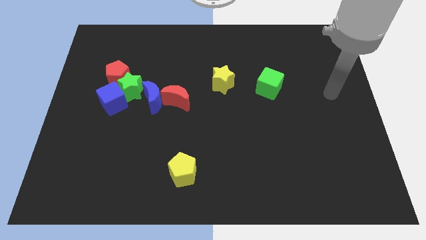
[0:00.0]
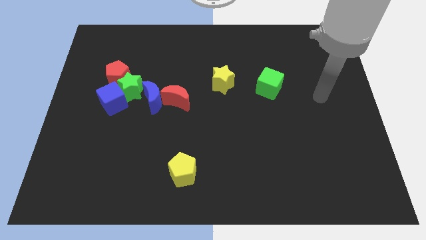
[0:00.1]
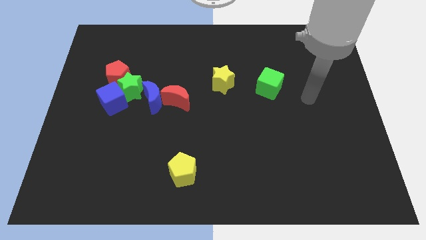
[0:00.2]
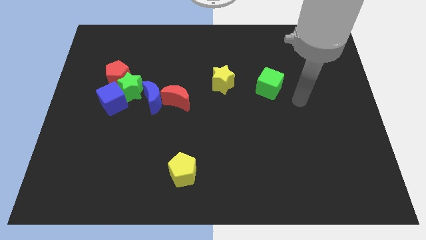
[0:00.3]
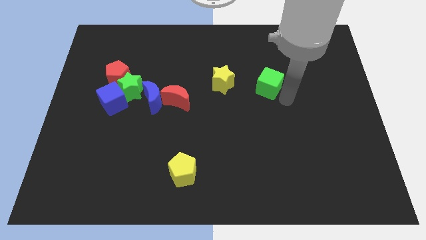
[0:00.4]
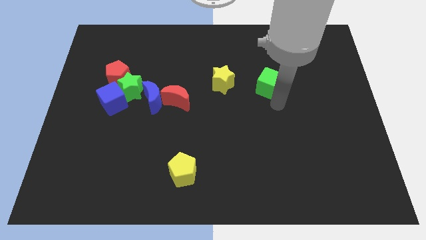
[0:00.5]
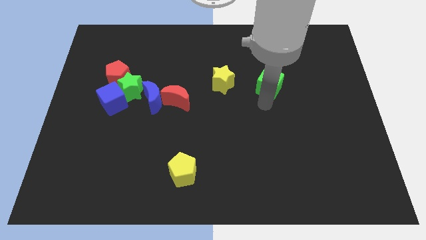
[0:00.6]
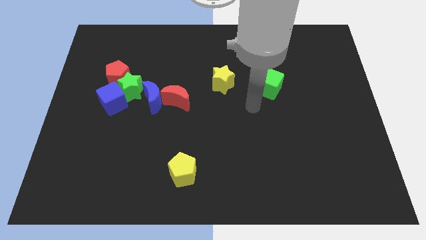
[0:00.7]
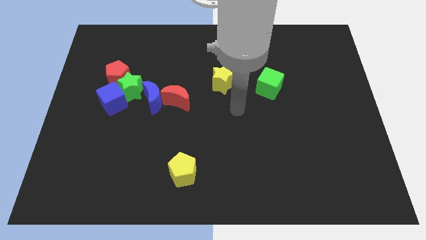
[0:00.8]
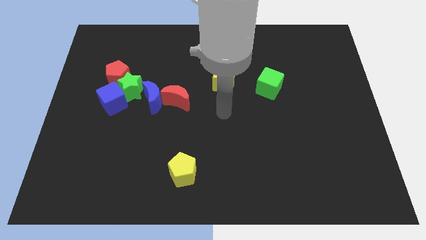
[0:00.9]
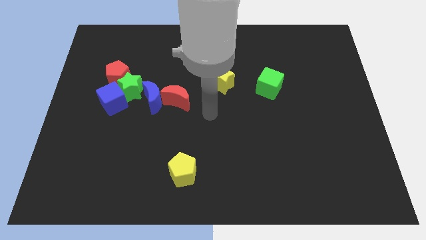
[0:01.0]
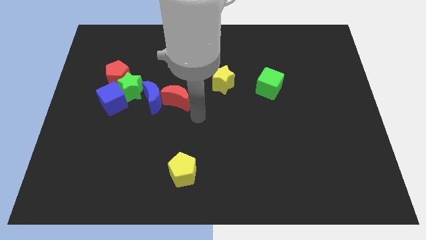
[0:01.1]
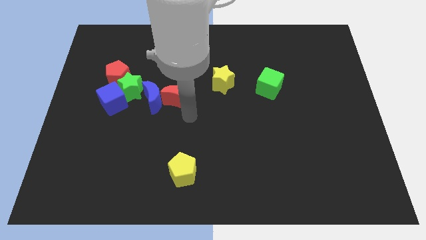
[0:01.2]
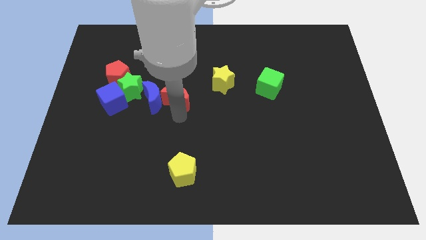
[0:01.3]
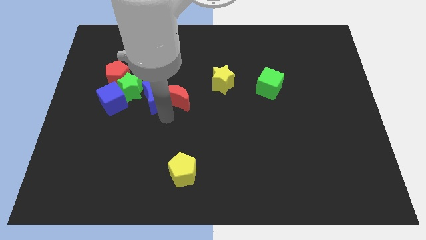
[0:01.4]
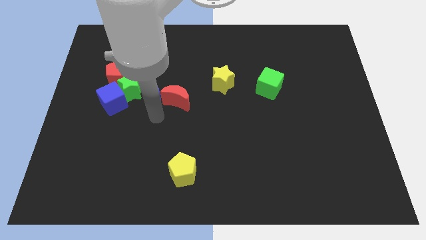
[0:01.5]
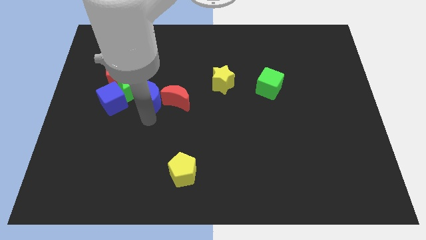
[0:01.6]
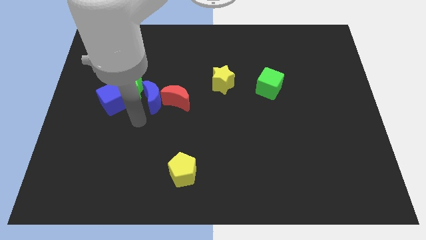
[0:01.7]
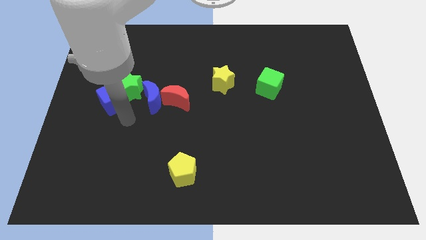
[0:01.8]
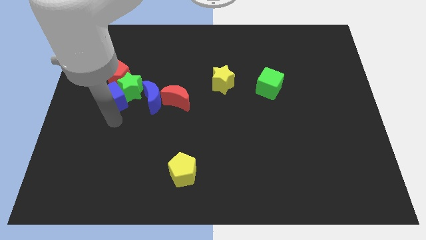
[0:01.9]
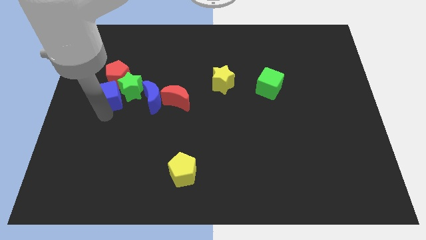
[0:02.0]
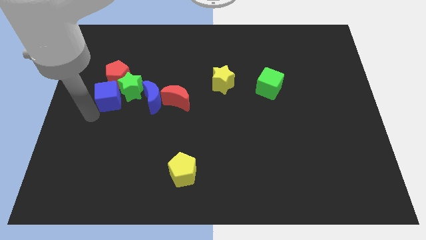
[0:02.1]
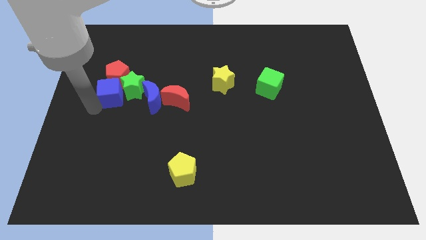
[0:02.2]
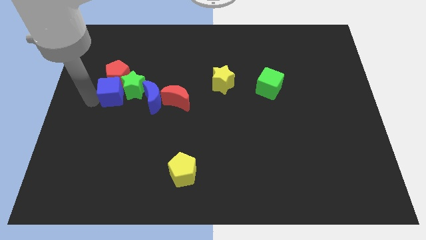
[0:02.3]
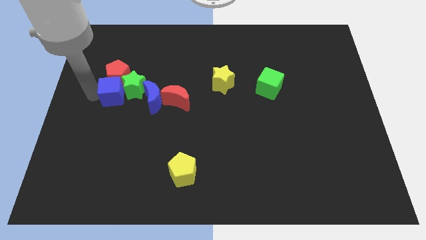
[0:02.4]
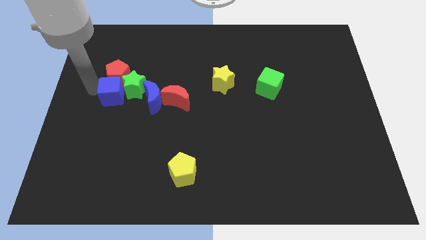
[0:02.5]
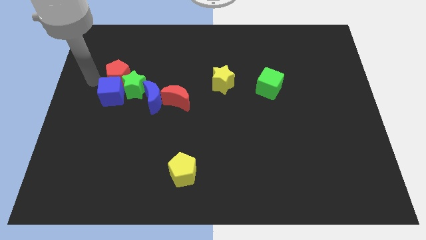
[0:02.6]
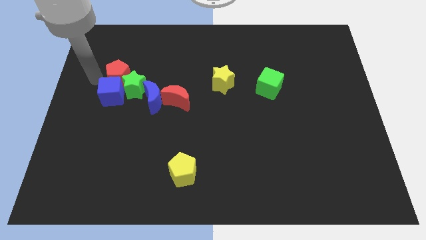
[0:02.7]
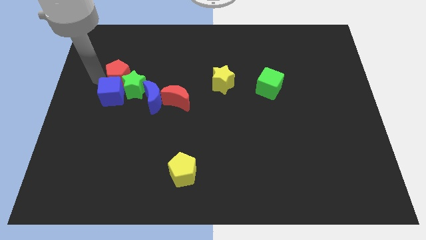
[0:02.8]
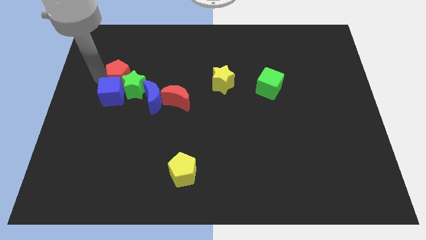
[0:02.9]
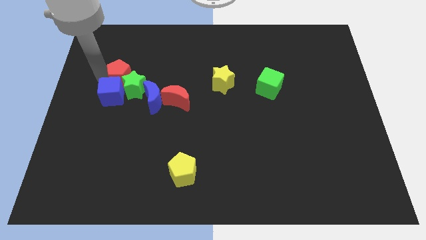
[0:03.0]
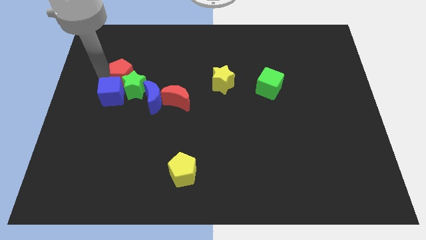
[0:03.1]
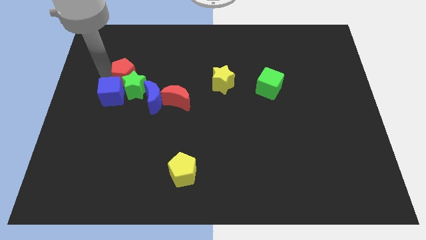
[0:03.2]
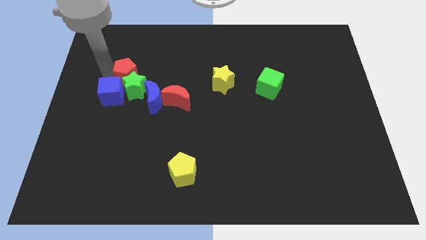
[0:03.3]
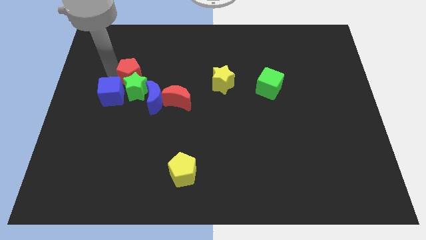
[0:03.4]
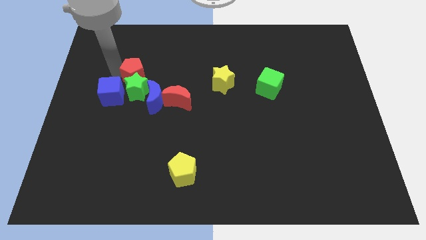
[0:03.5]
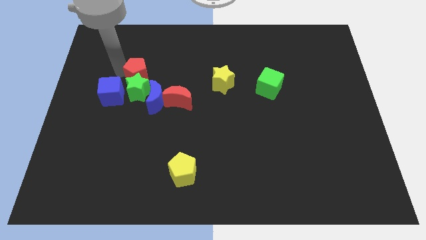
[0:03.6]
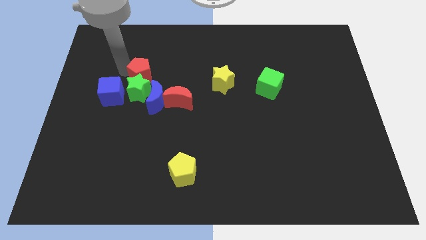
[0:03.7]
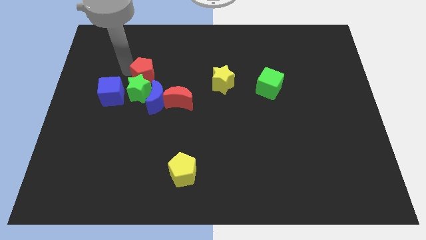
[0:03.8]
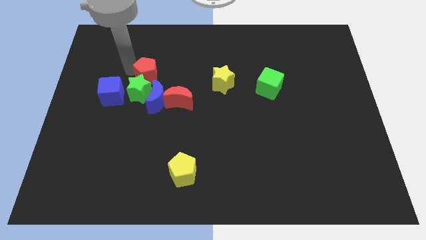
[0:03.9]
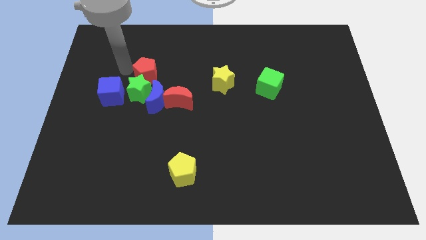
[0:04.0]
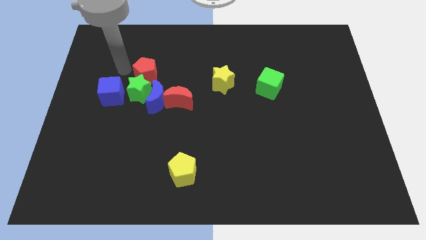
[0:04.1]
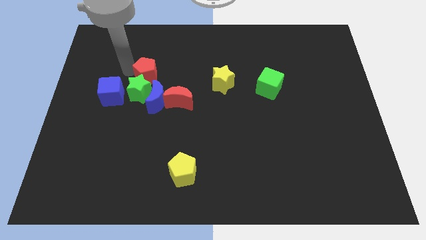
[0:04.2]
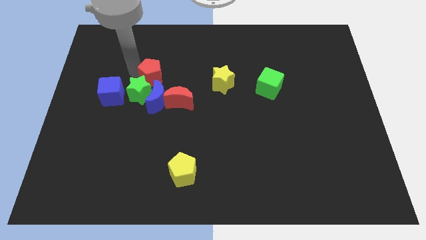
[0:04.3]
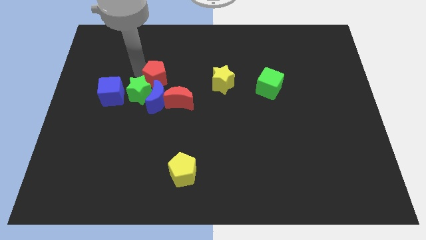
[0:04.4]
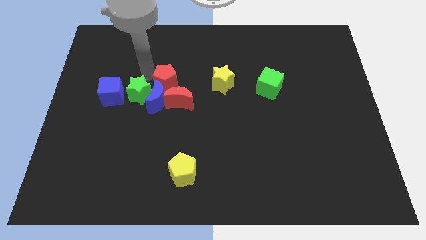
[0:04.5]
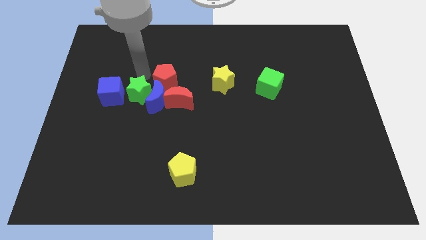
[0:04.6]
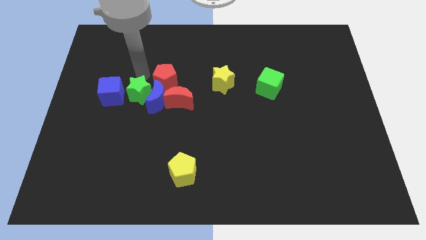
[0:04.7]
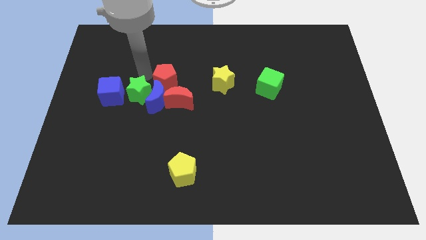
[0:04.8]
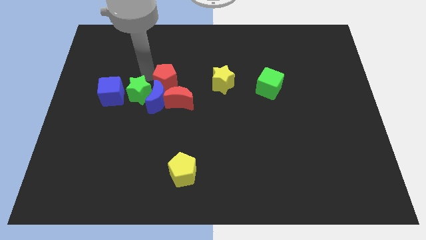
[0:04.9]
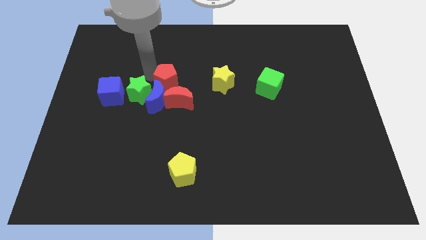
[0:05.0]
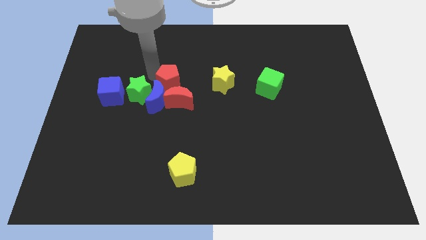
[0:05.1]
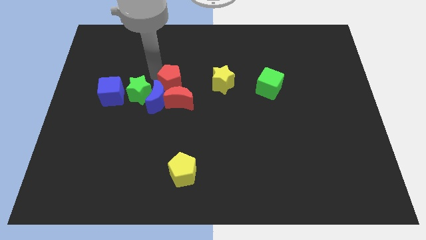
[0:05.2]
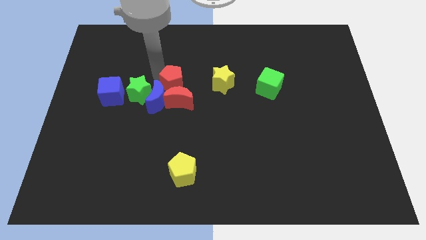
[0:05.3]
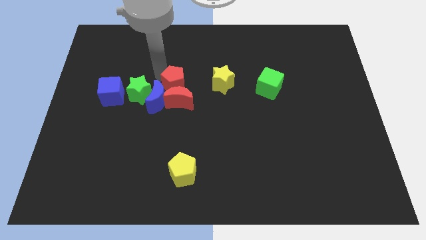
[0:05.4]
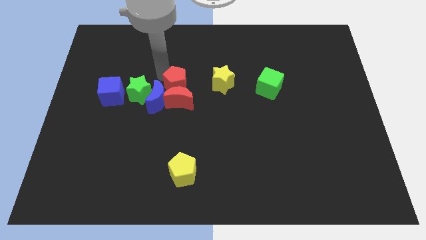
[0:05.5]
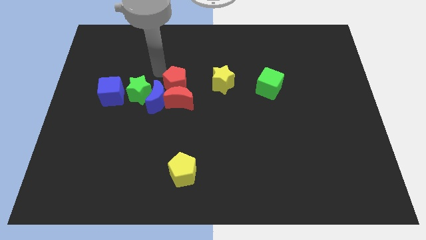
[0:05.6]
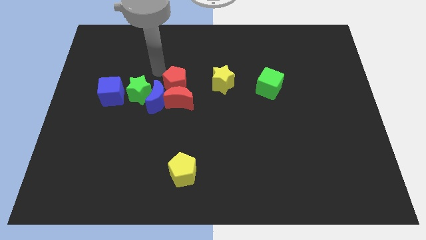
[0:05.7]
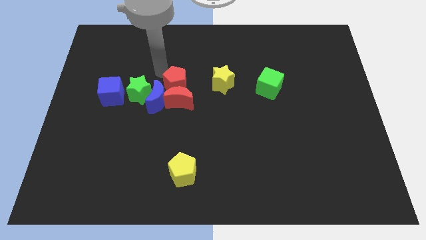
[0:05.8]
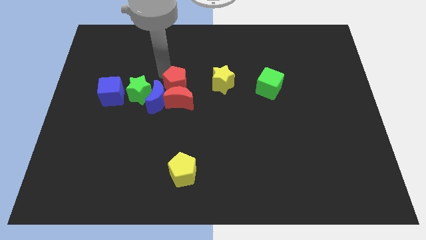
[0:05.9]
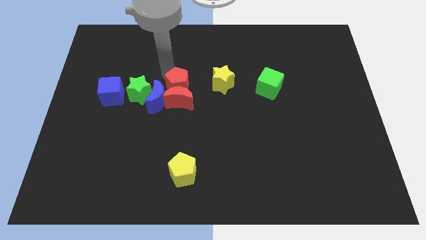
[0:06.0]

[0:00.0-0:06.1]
move the red pentagon right of the blue moon
